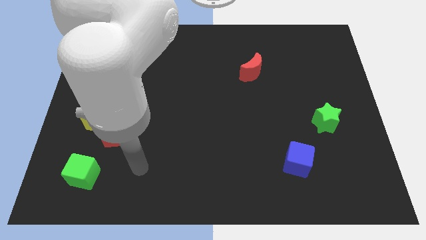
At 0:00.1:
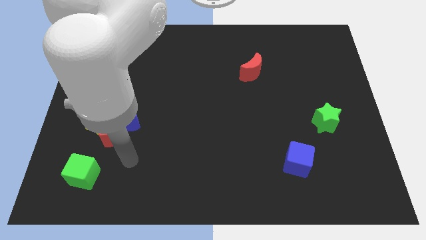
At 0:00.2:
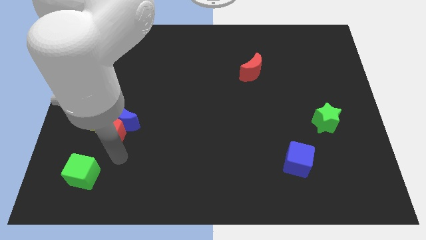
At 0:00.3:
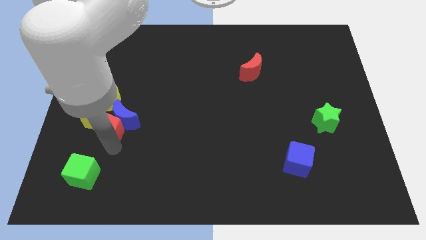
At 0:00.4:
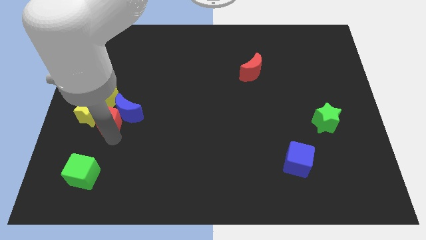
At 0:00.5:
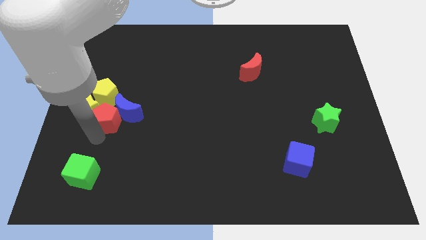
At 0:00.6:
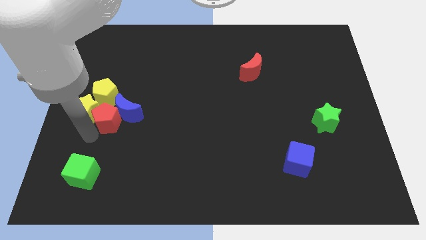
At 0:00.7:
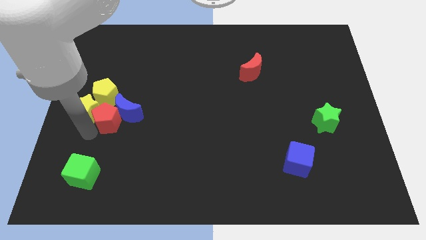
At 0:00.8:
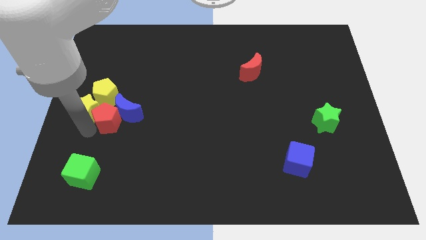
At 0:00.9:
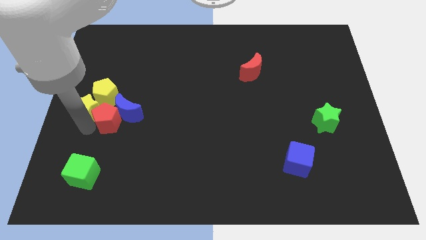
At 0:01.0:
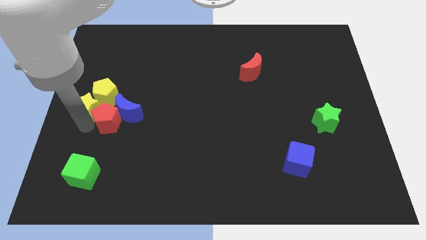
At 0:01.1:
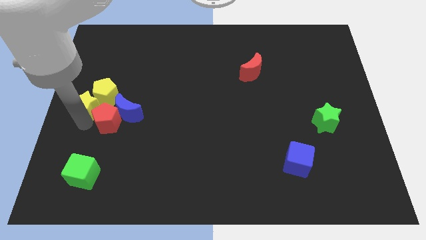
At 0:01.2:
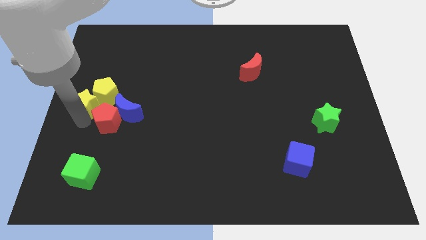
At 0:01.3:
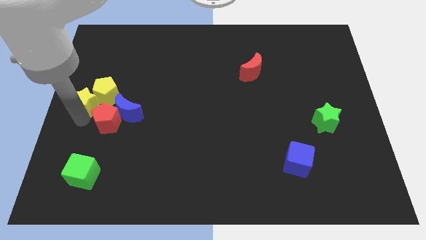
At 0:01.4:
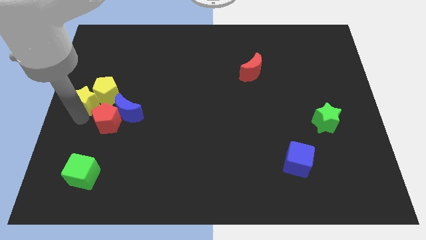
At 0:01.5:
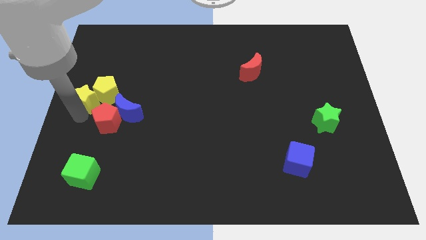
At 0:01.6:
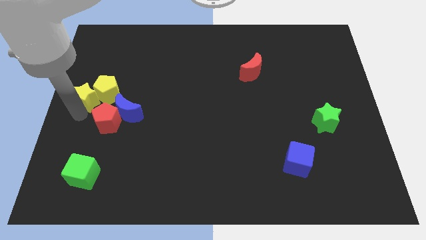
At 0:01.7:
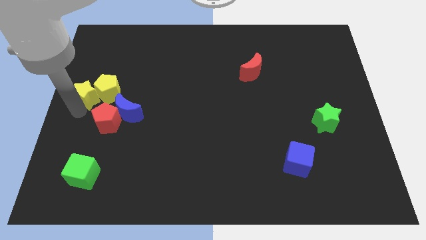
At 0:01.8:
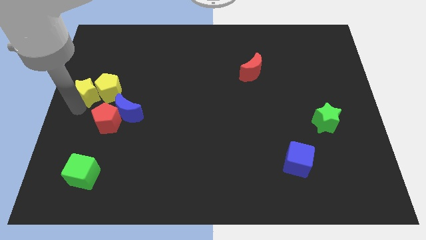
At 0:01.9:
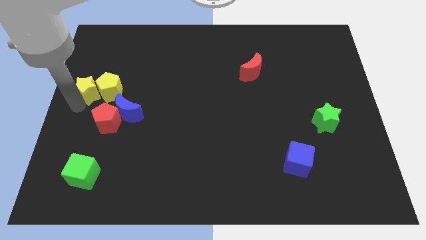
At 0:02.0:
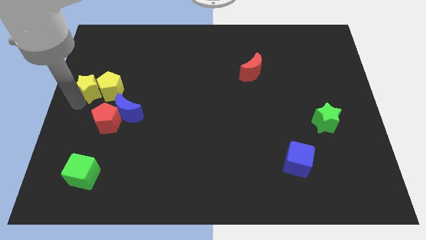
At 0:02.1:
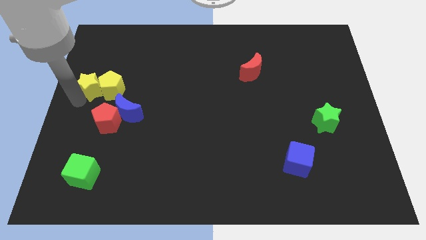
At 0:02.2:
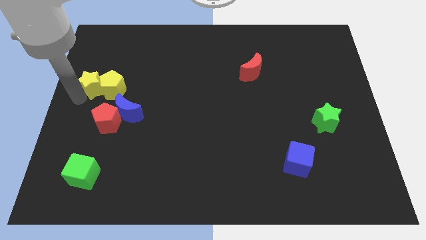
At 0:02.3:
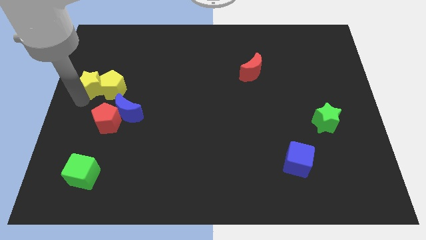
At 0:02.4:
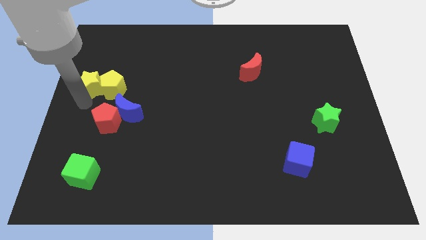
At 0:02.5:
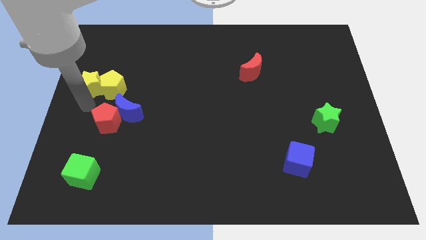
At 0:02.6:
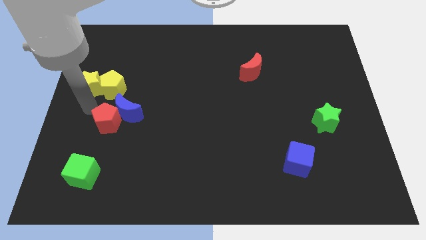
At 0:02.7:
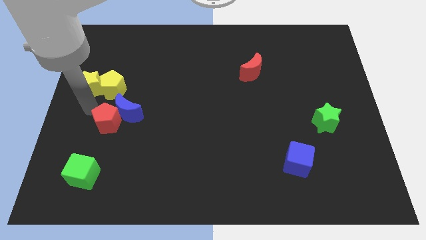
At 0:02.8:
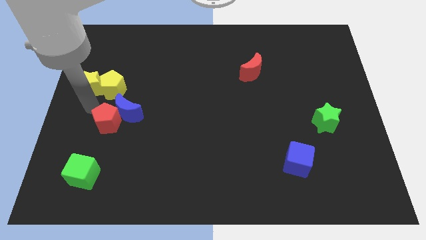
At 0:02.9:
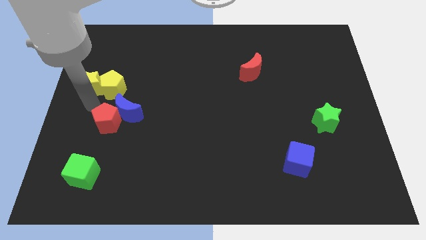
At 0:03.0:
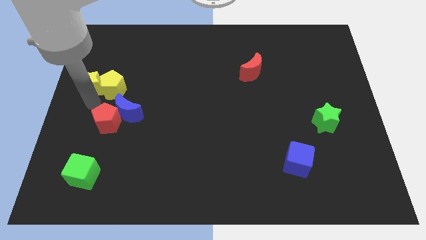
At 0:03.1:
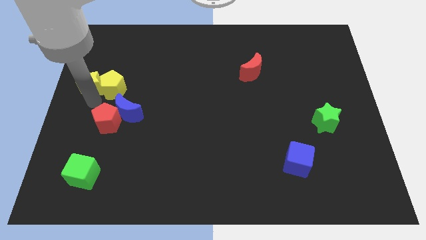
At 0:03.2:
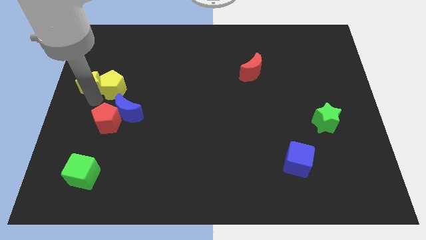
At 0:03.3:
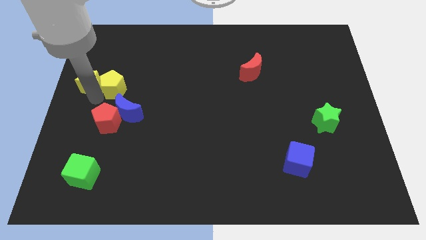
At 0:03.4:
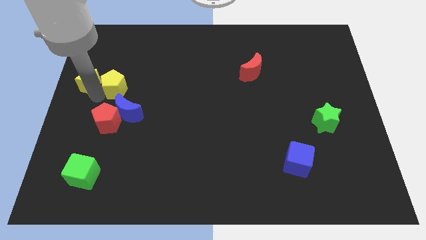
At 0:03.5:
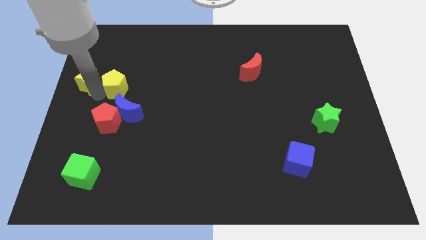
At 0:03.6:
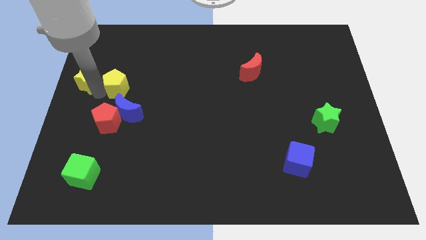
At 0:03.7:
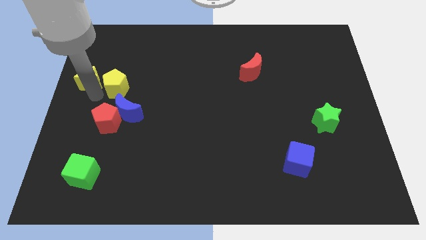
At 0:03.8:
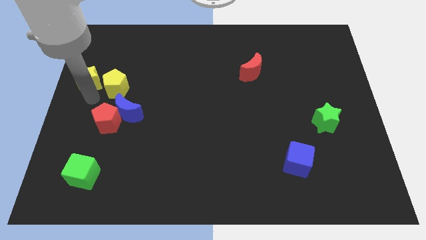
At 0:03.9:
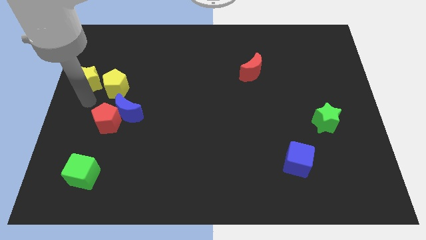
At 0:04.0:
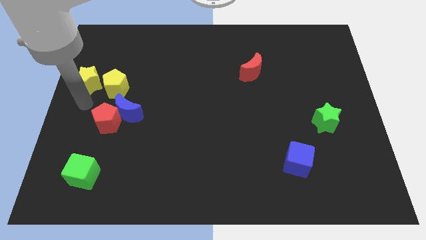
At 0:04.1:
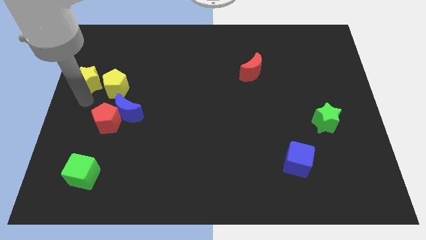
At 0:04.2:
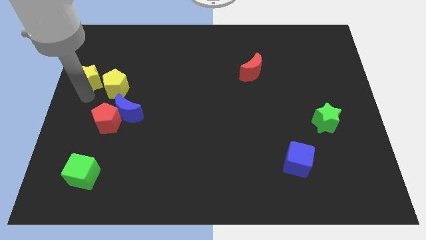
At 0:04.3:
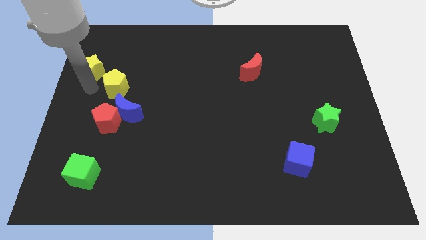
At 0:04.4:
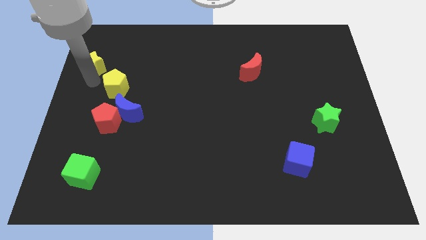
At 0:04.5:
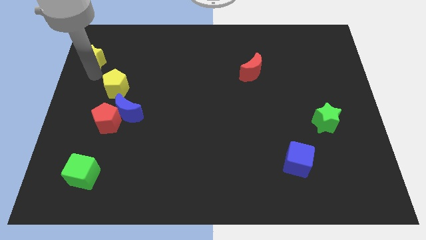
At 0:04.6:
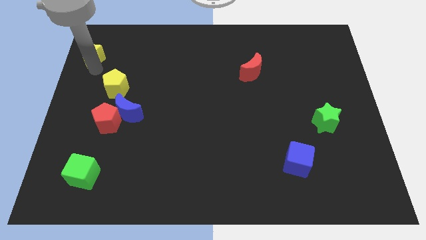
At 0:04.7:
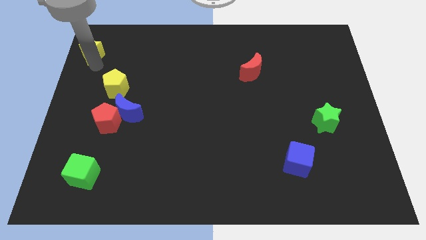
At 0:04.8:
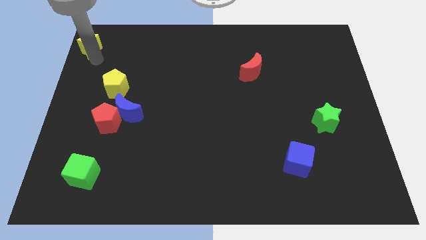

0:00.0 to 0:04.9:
put the yellow star to the upper left corner

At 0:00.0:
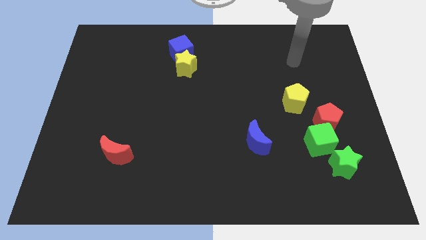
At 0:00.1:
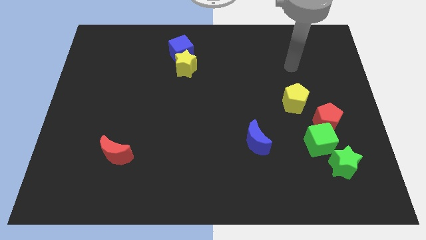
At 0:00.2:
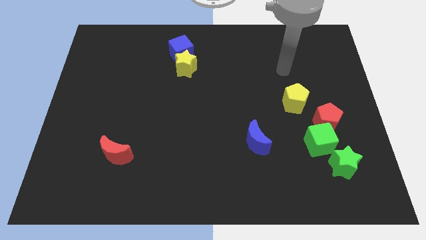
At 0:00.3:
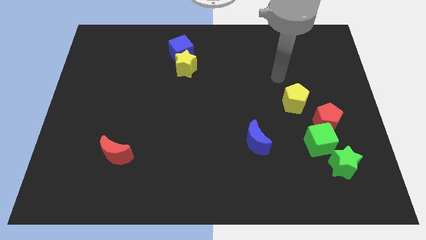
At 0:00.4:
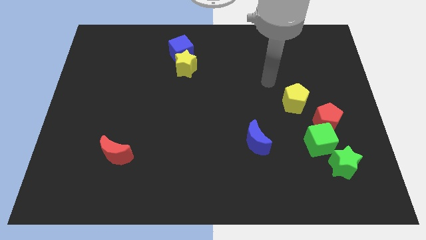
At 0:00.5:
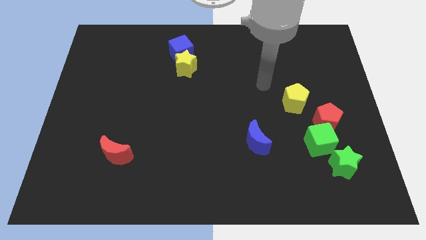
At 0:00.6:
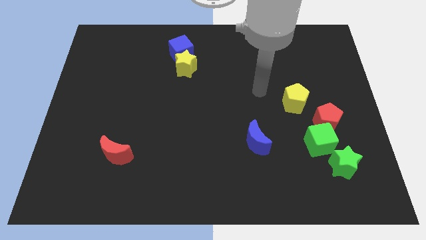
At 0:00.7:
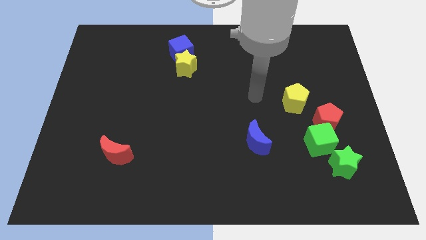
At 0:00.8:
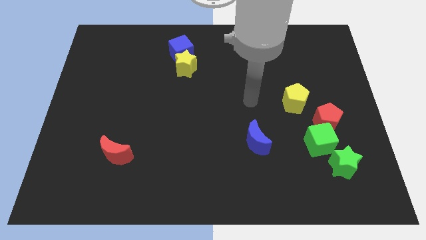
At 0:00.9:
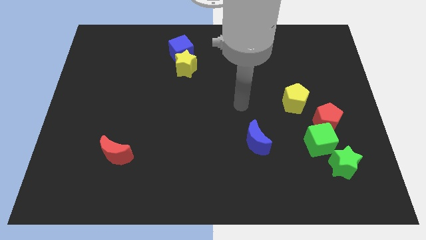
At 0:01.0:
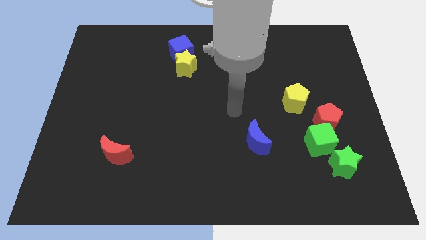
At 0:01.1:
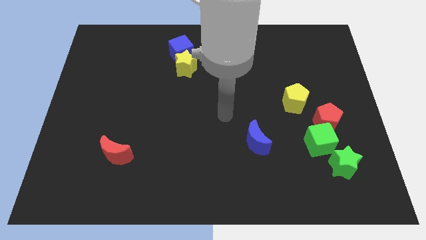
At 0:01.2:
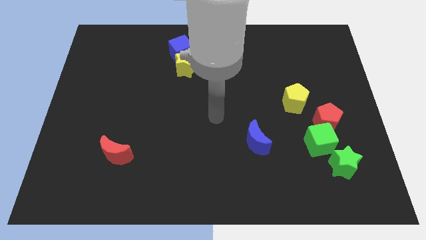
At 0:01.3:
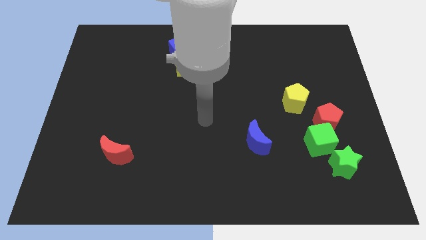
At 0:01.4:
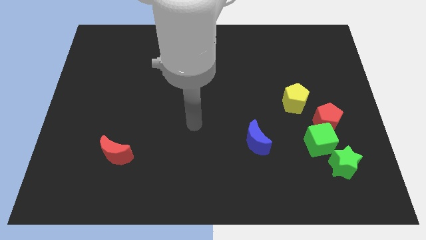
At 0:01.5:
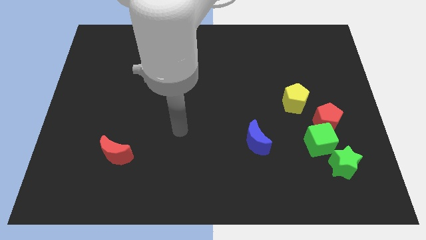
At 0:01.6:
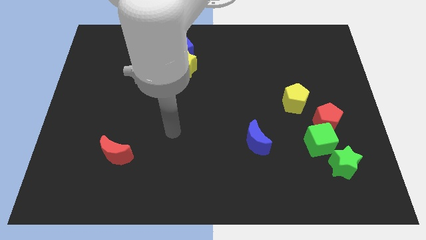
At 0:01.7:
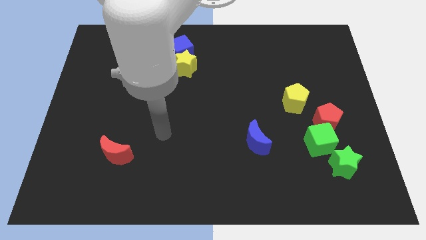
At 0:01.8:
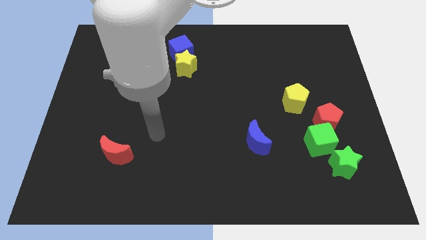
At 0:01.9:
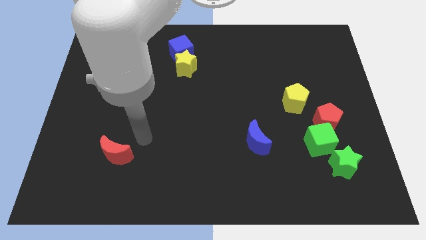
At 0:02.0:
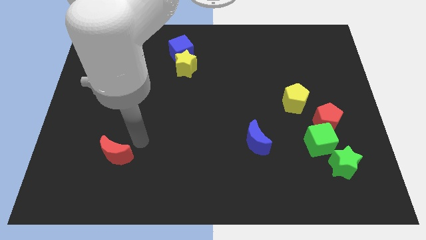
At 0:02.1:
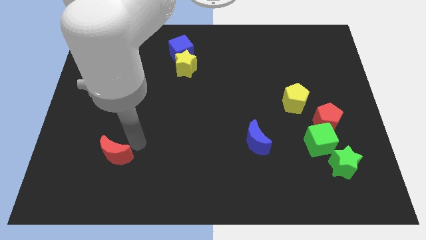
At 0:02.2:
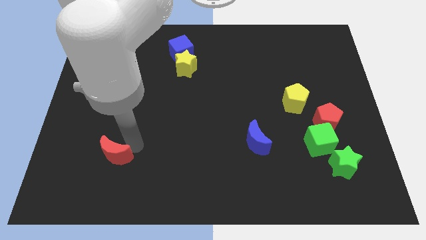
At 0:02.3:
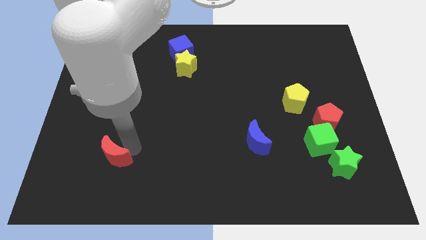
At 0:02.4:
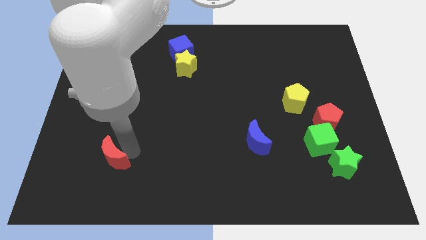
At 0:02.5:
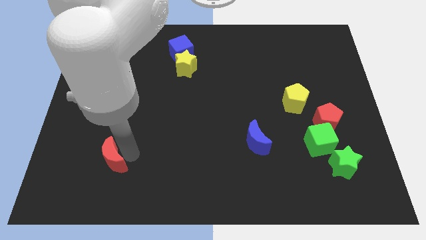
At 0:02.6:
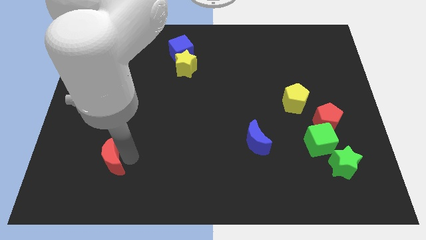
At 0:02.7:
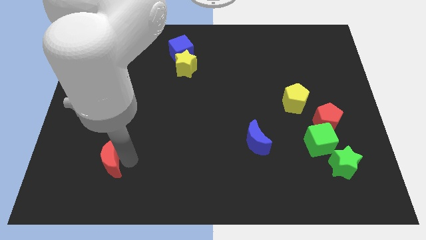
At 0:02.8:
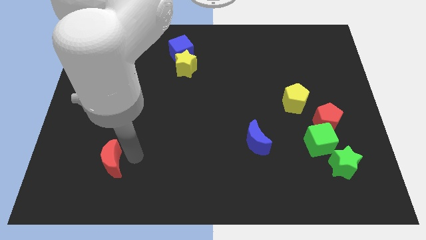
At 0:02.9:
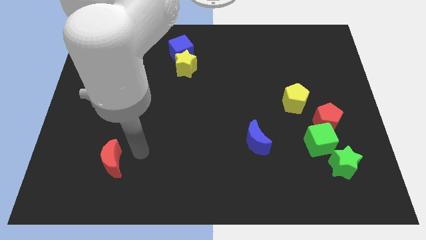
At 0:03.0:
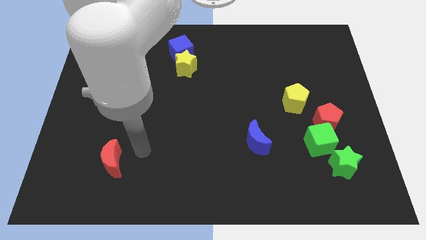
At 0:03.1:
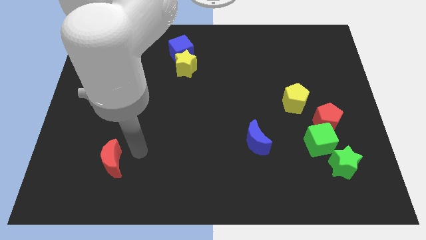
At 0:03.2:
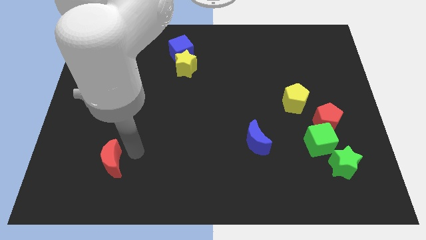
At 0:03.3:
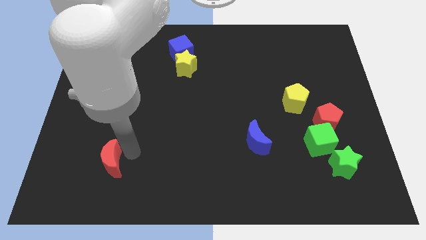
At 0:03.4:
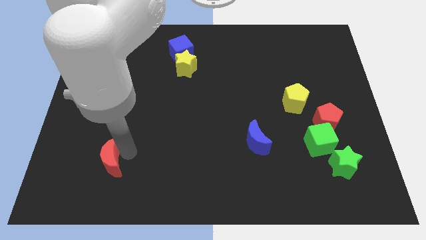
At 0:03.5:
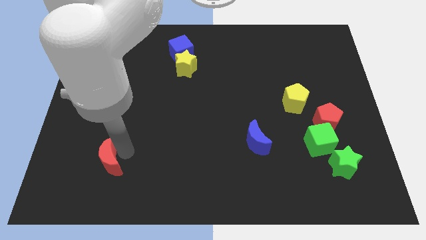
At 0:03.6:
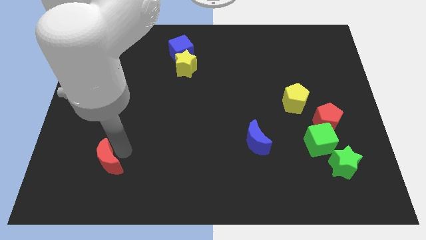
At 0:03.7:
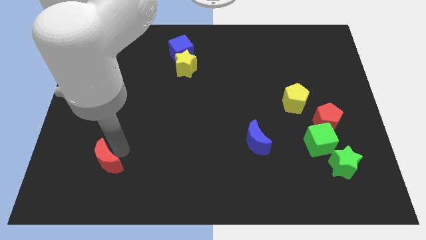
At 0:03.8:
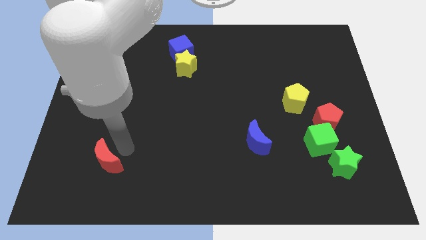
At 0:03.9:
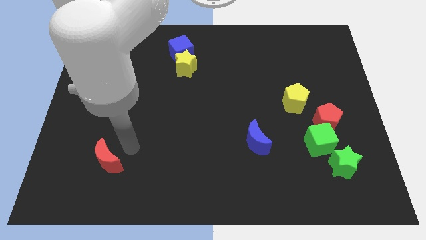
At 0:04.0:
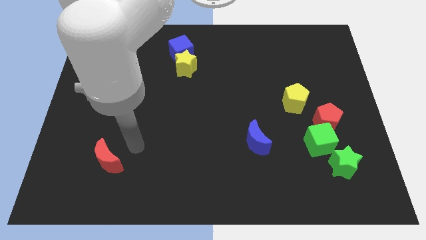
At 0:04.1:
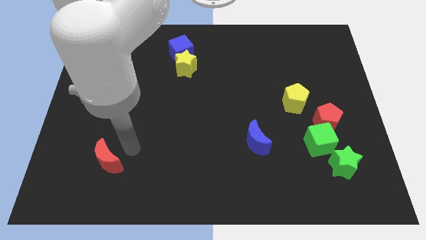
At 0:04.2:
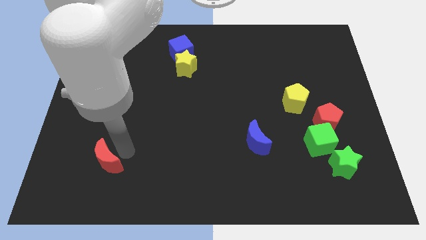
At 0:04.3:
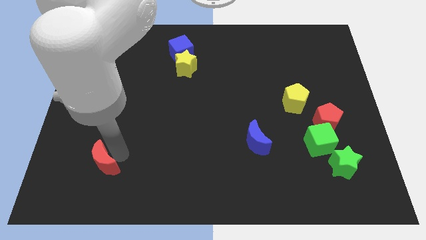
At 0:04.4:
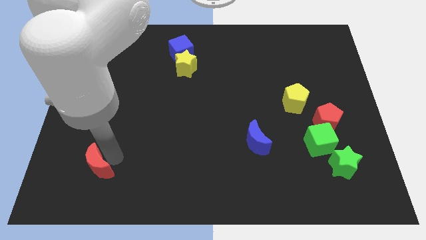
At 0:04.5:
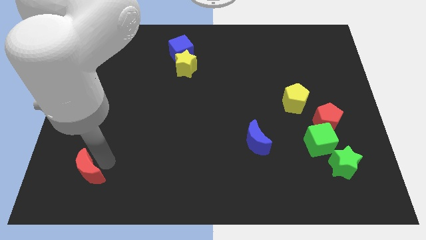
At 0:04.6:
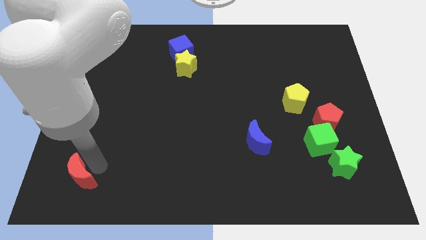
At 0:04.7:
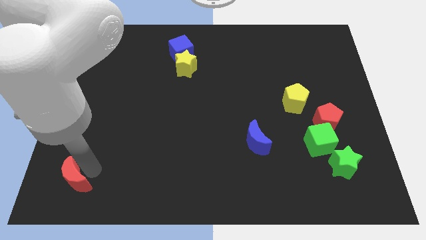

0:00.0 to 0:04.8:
move the red moon to the bottom left corner
